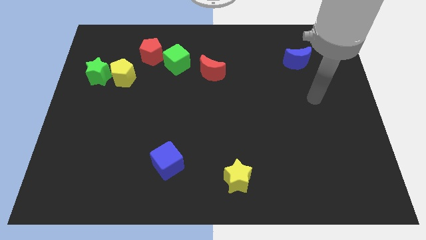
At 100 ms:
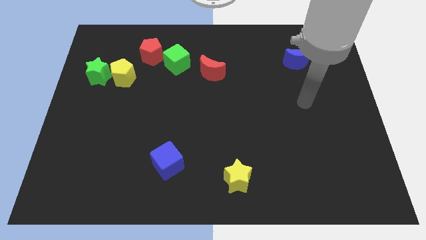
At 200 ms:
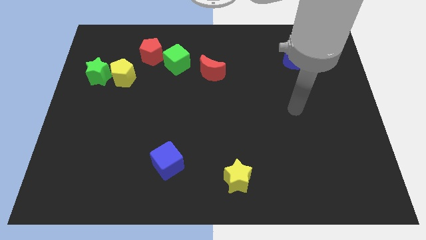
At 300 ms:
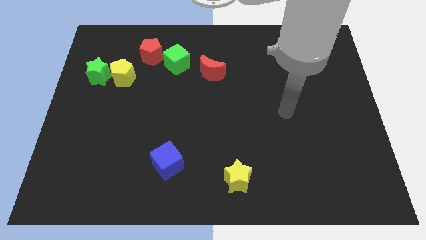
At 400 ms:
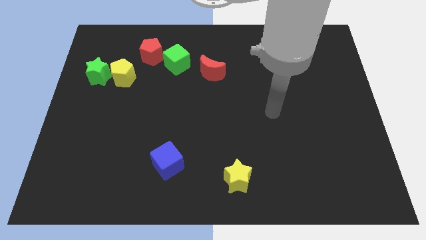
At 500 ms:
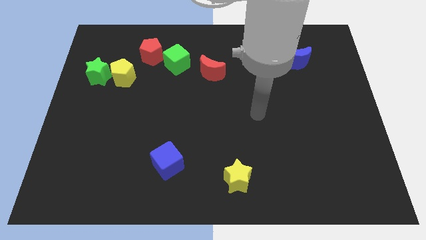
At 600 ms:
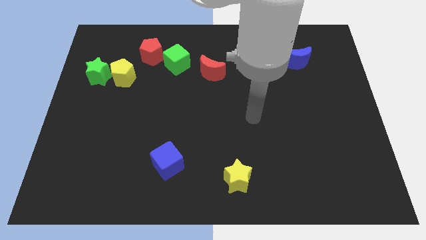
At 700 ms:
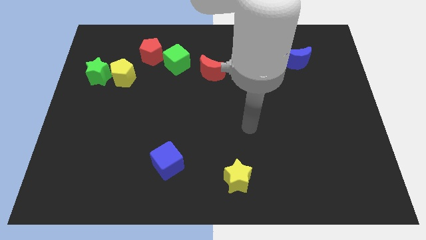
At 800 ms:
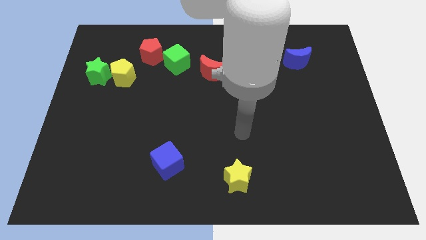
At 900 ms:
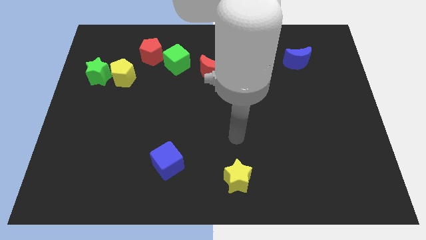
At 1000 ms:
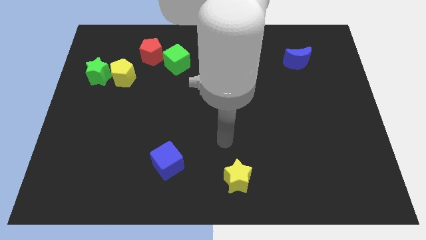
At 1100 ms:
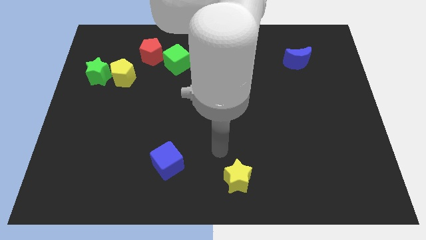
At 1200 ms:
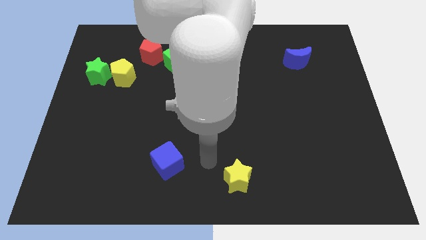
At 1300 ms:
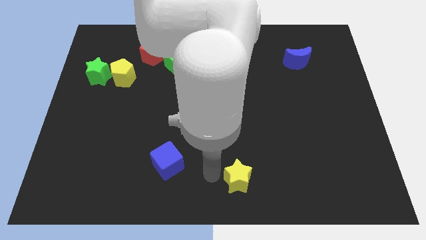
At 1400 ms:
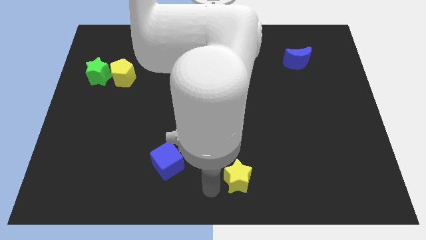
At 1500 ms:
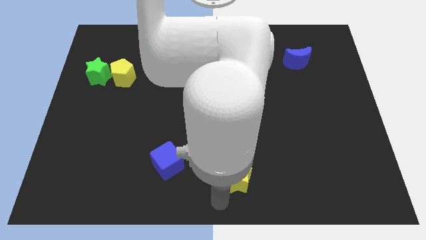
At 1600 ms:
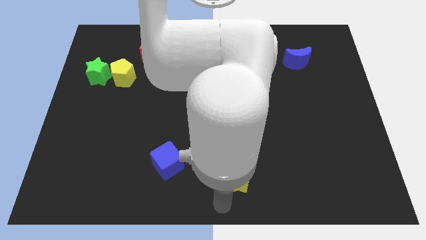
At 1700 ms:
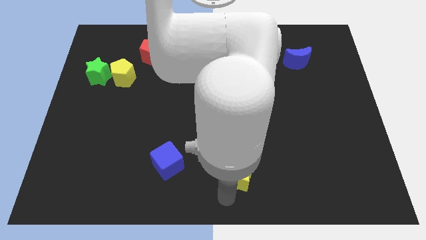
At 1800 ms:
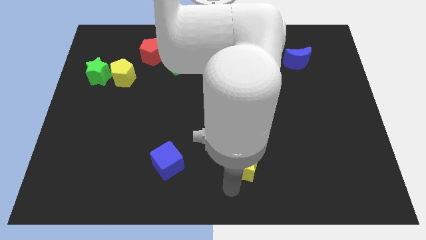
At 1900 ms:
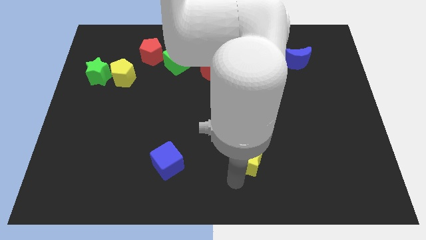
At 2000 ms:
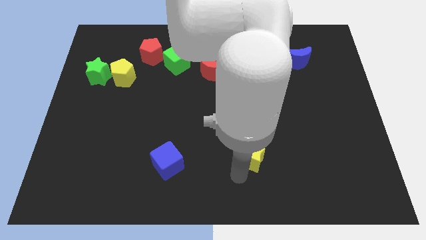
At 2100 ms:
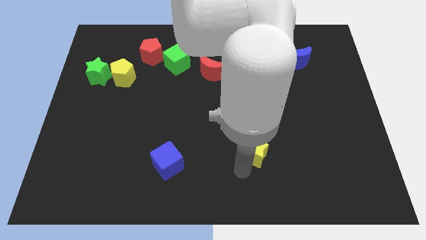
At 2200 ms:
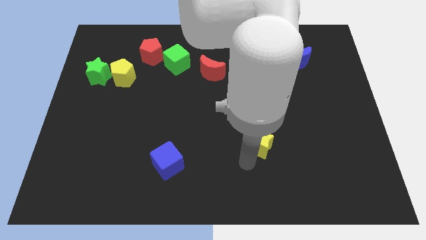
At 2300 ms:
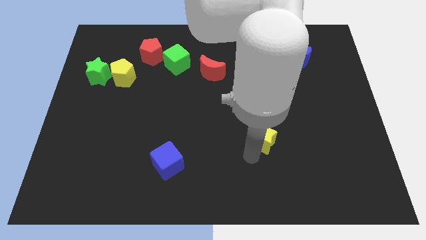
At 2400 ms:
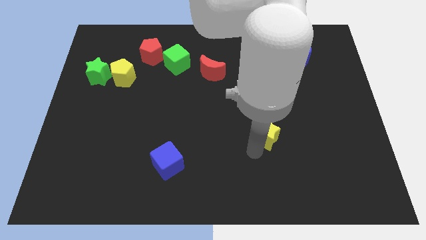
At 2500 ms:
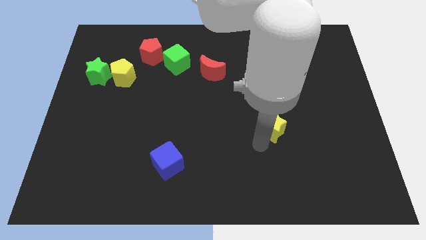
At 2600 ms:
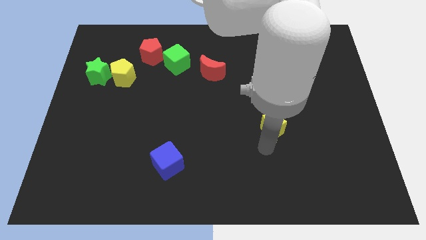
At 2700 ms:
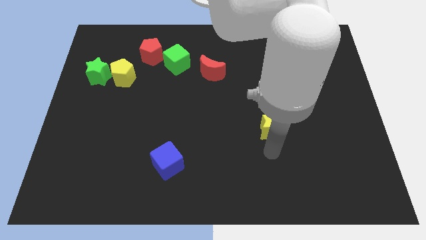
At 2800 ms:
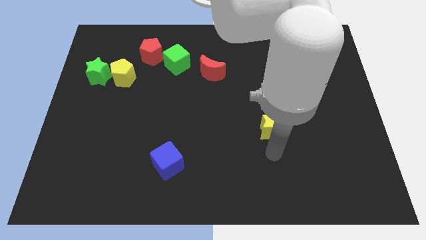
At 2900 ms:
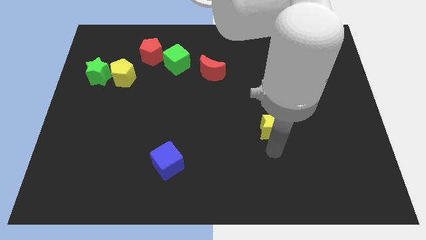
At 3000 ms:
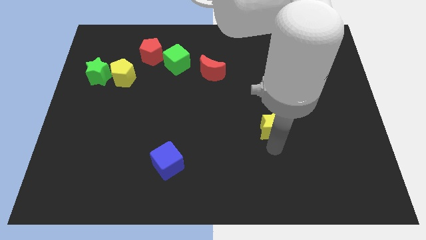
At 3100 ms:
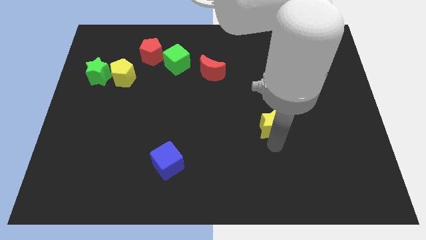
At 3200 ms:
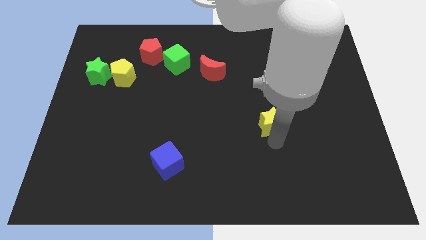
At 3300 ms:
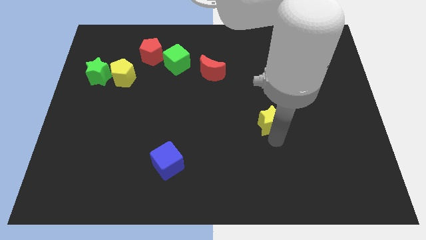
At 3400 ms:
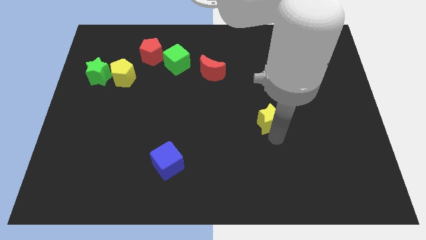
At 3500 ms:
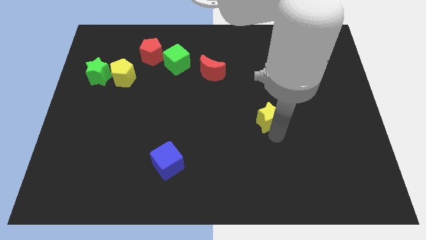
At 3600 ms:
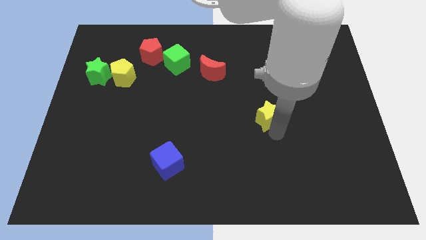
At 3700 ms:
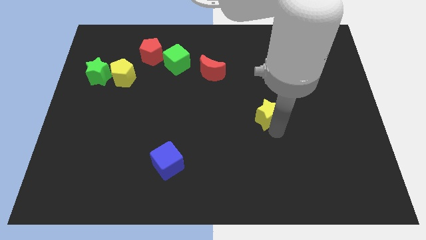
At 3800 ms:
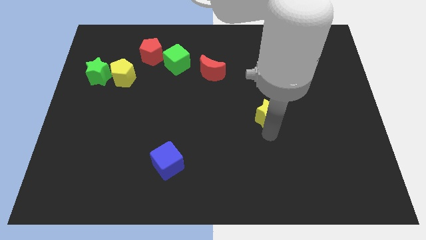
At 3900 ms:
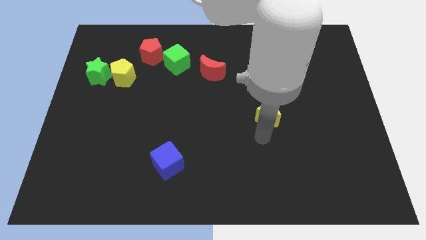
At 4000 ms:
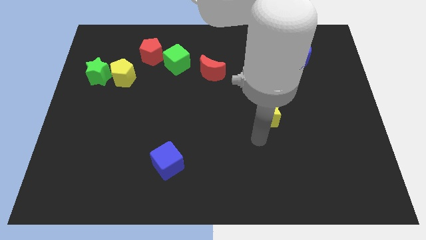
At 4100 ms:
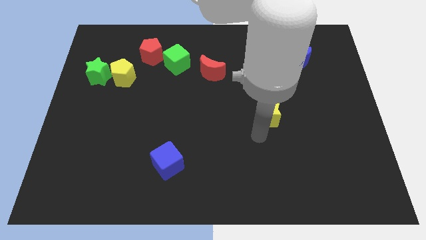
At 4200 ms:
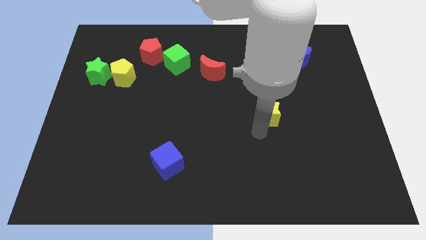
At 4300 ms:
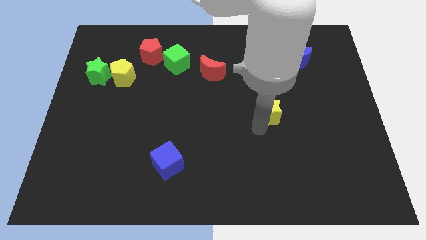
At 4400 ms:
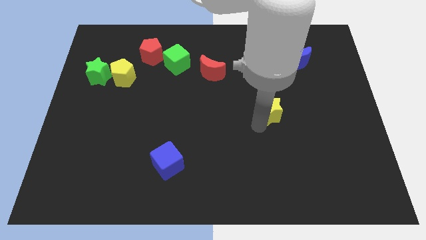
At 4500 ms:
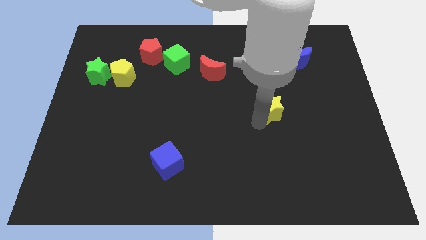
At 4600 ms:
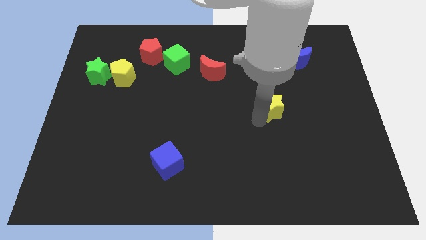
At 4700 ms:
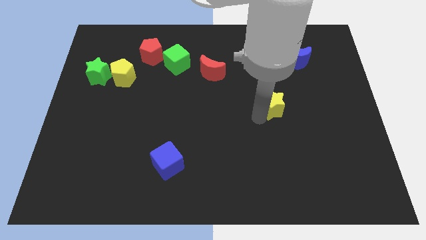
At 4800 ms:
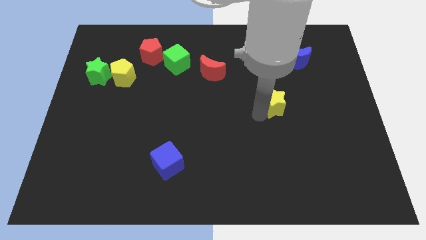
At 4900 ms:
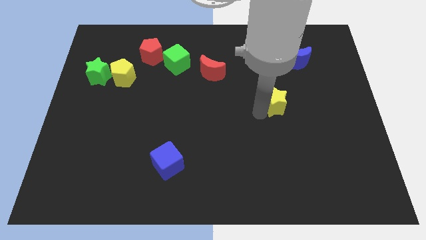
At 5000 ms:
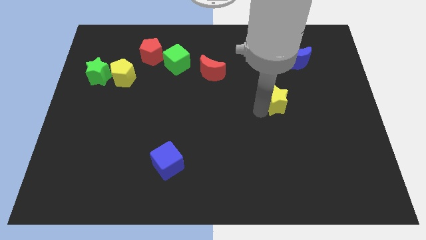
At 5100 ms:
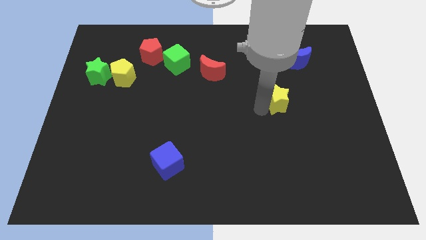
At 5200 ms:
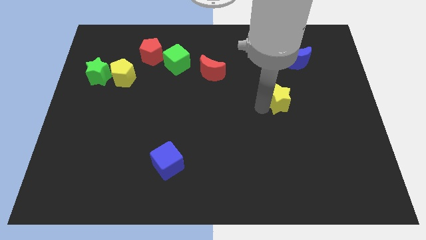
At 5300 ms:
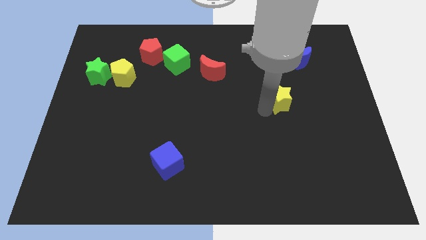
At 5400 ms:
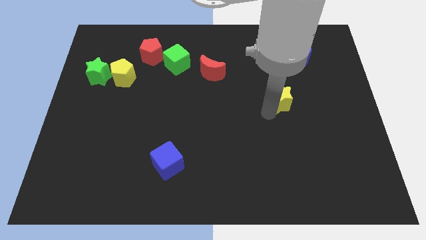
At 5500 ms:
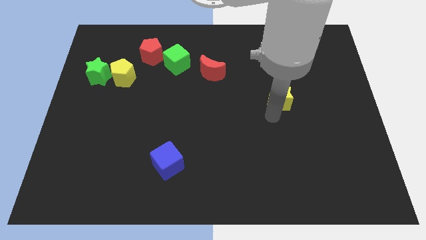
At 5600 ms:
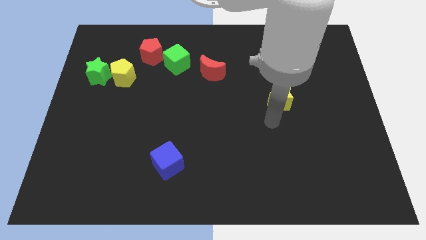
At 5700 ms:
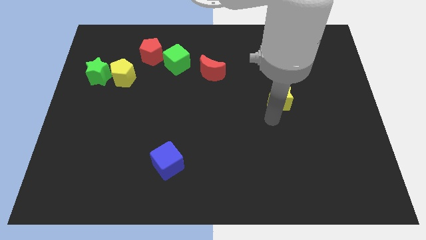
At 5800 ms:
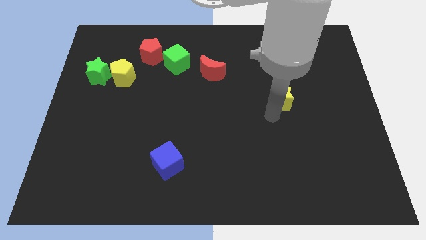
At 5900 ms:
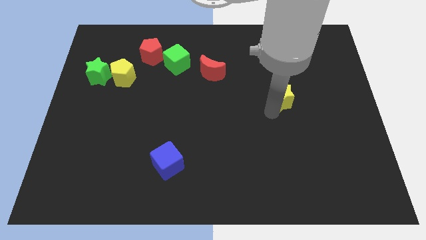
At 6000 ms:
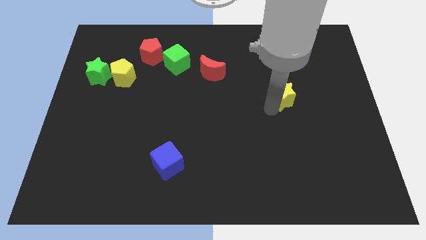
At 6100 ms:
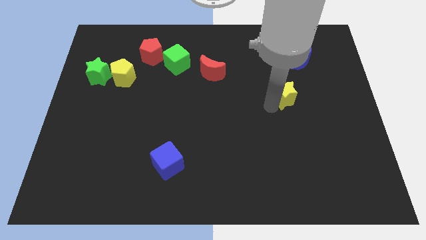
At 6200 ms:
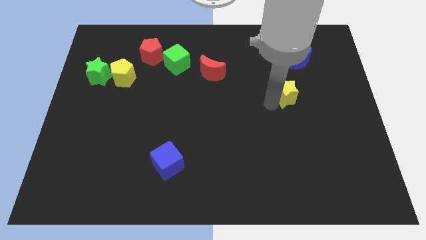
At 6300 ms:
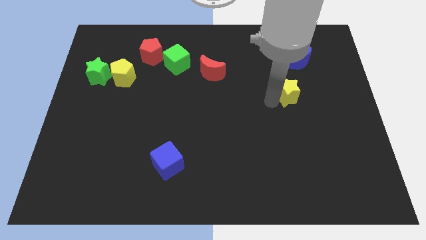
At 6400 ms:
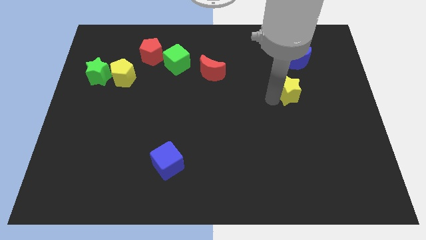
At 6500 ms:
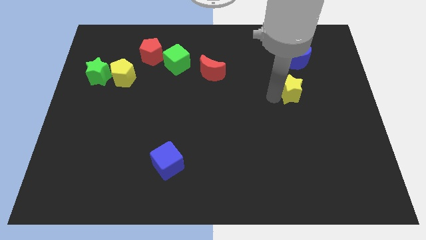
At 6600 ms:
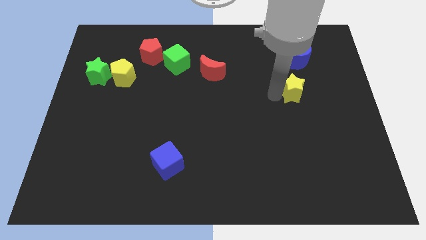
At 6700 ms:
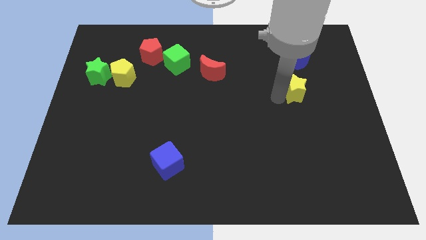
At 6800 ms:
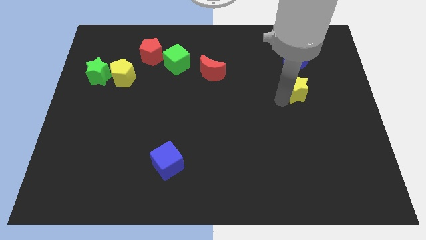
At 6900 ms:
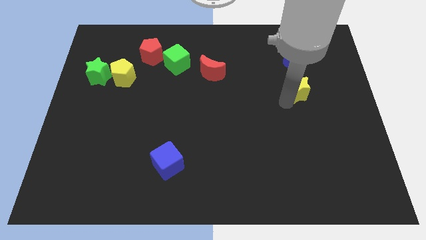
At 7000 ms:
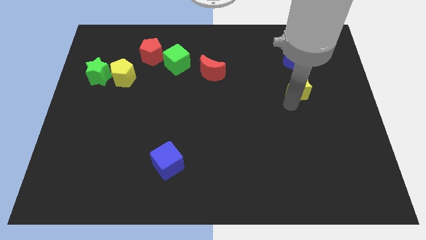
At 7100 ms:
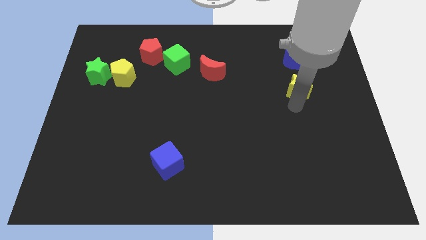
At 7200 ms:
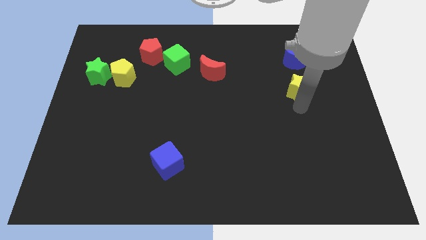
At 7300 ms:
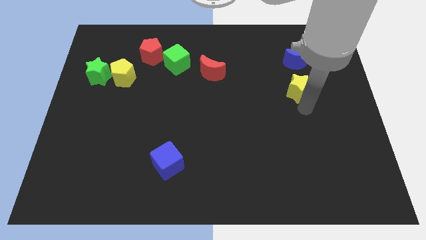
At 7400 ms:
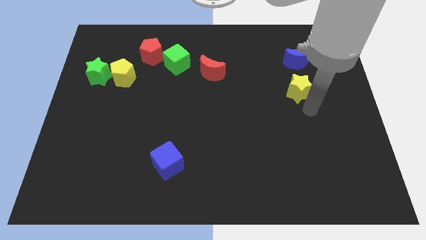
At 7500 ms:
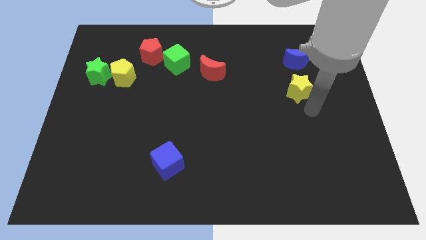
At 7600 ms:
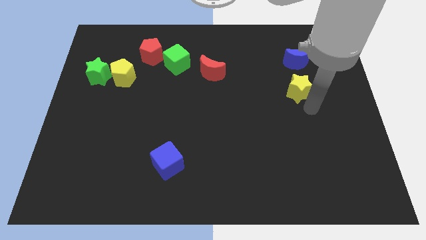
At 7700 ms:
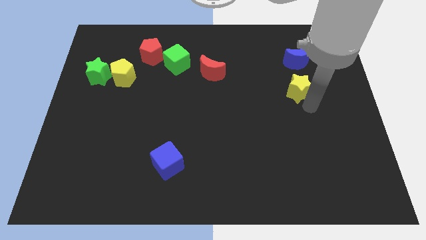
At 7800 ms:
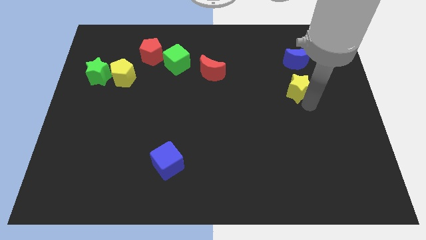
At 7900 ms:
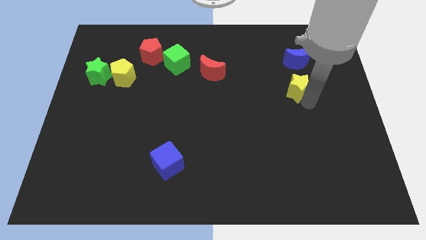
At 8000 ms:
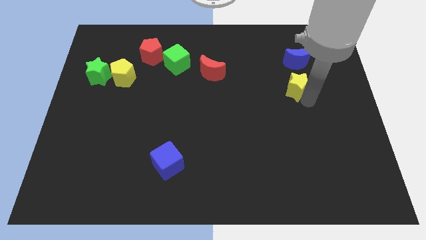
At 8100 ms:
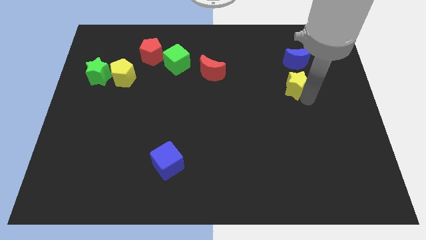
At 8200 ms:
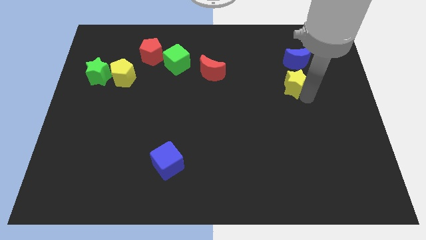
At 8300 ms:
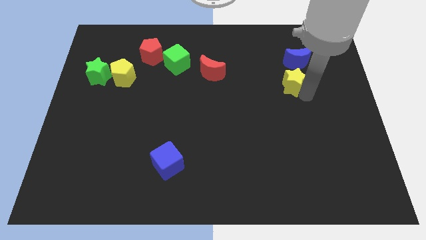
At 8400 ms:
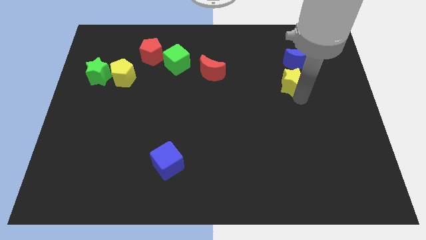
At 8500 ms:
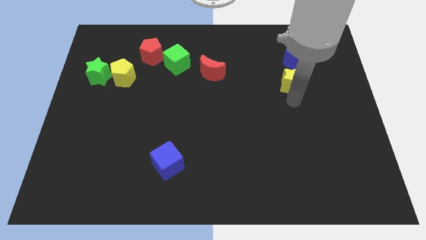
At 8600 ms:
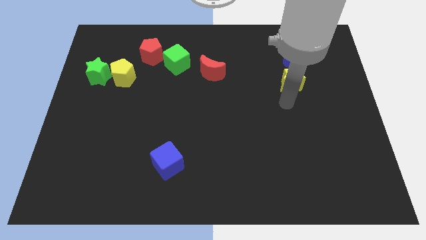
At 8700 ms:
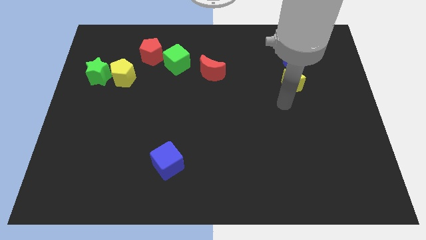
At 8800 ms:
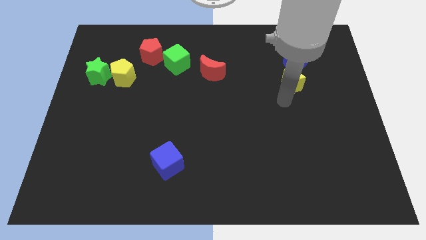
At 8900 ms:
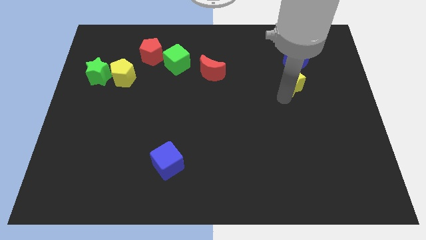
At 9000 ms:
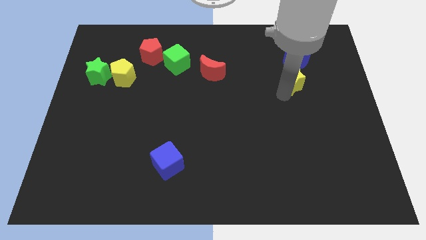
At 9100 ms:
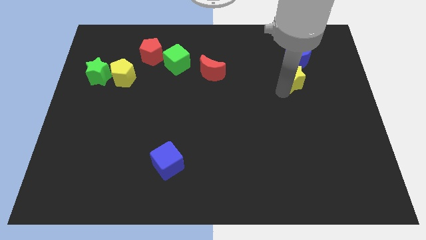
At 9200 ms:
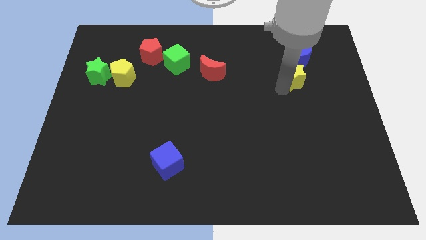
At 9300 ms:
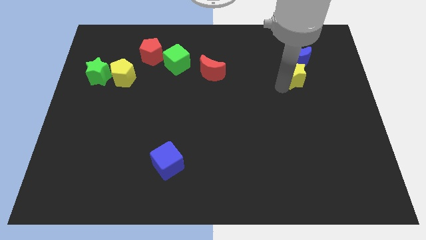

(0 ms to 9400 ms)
slide the yellow star next to the blue moon
